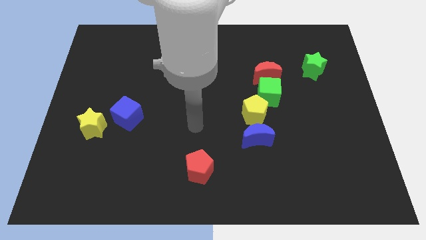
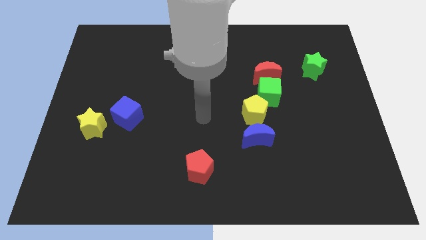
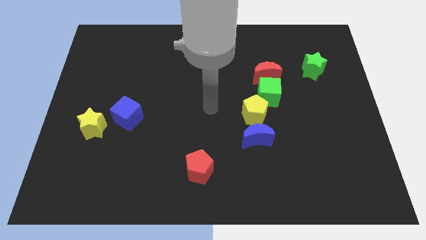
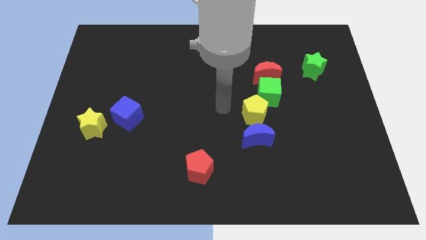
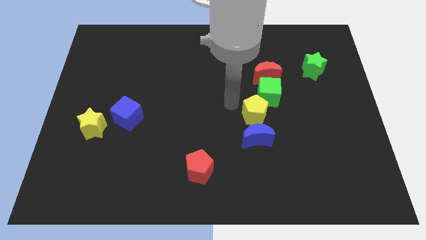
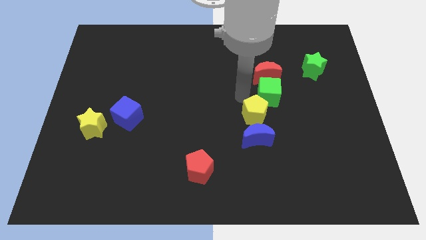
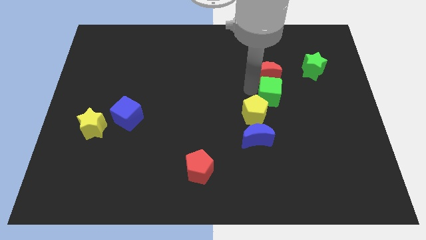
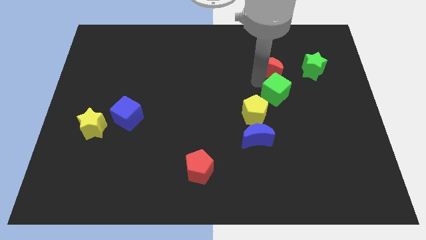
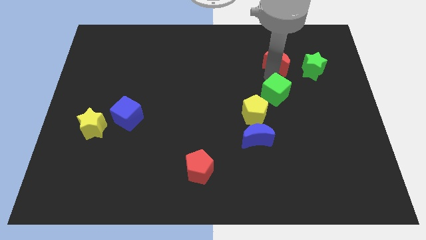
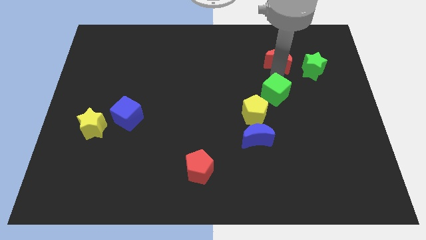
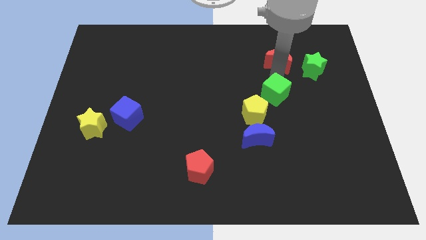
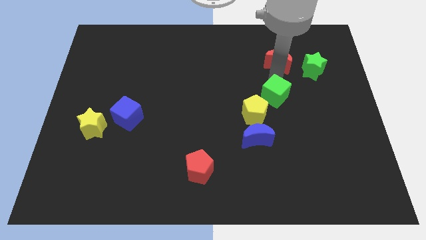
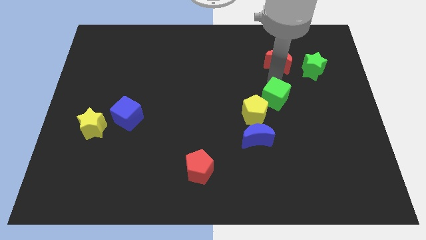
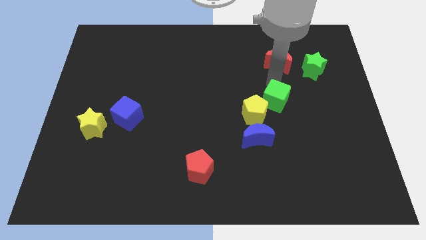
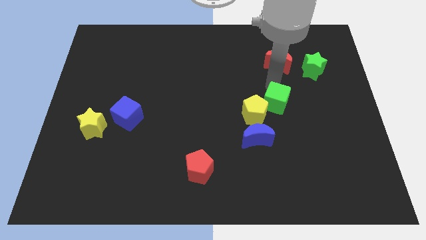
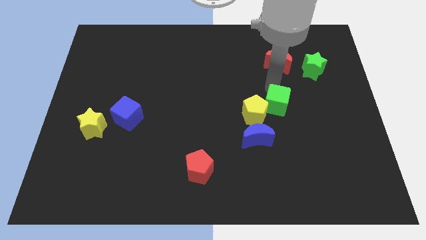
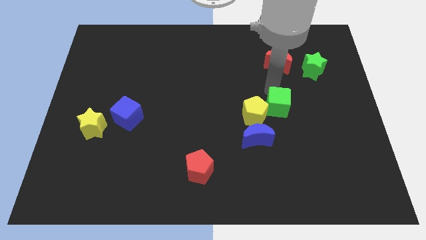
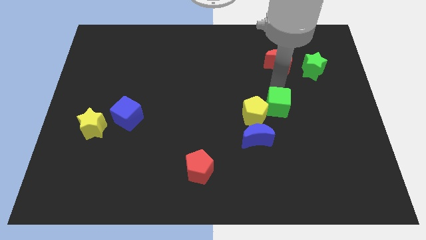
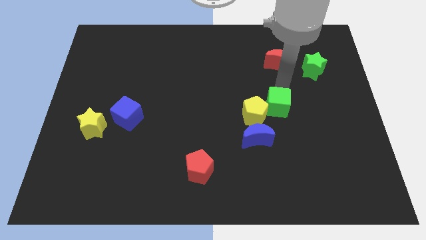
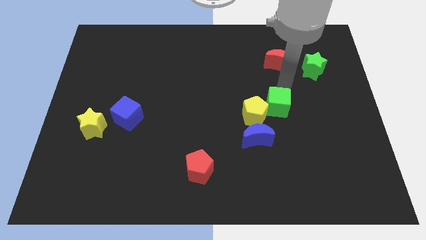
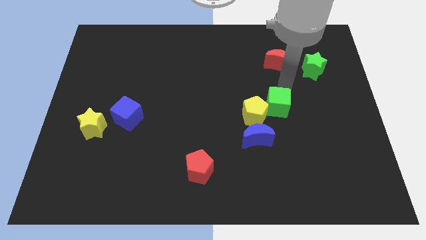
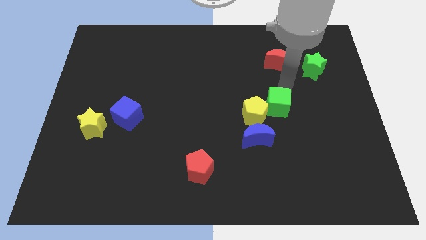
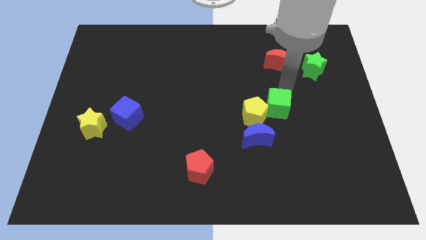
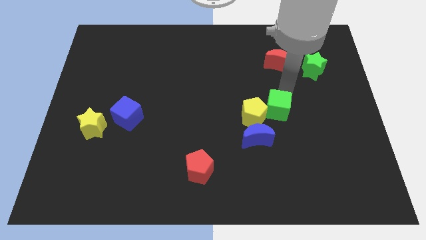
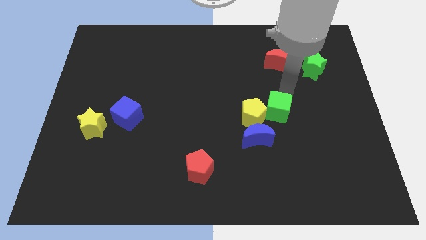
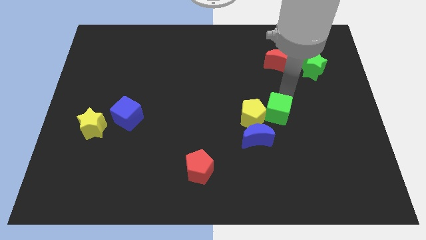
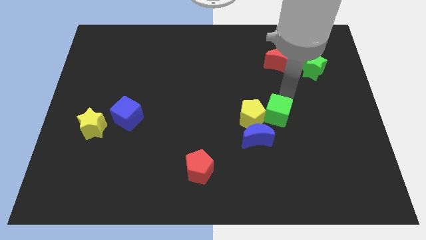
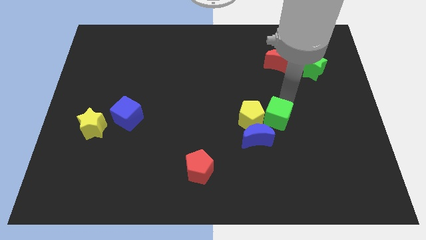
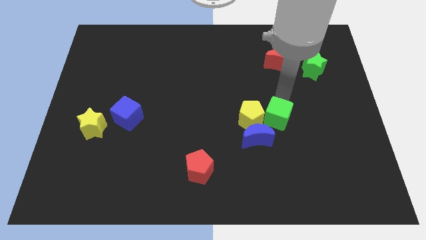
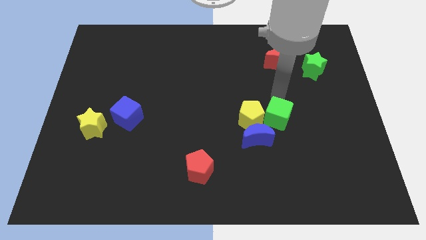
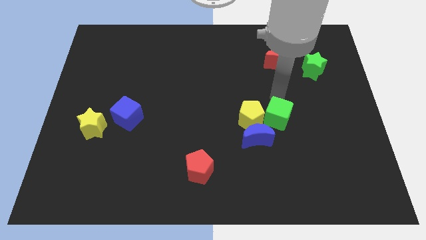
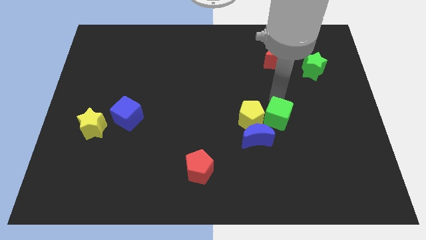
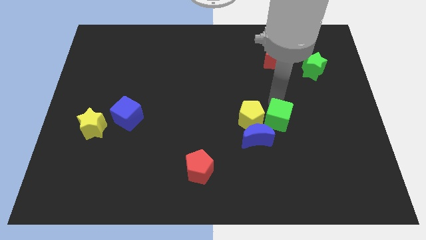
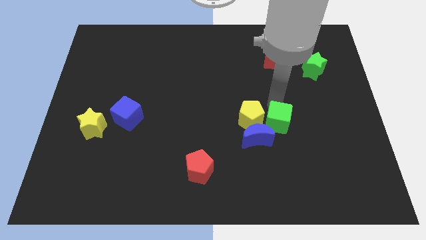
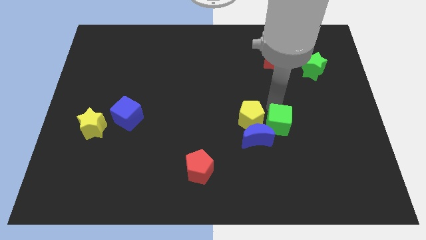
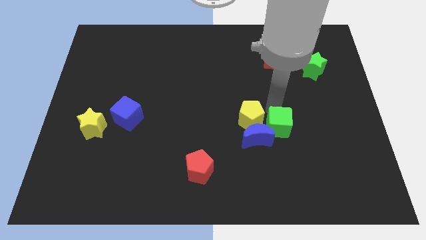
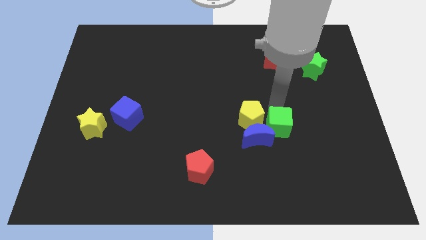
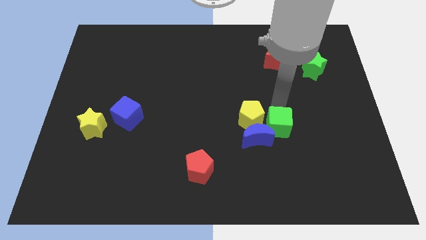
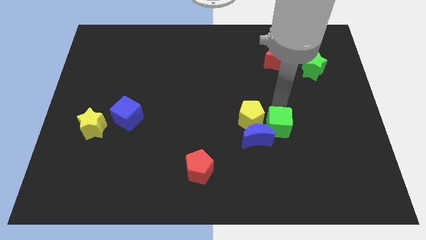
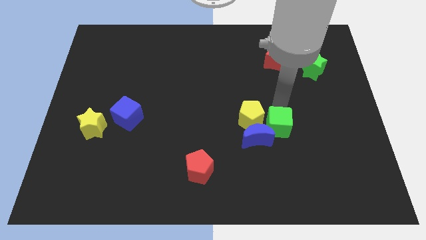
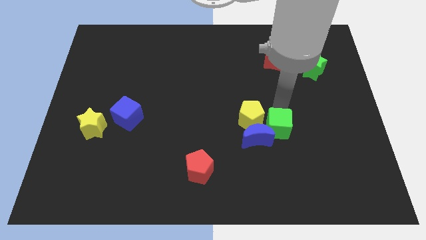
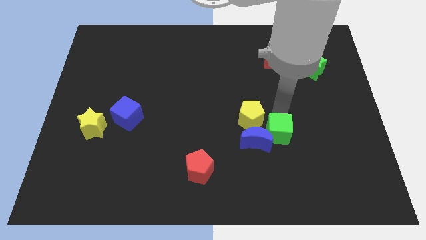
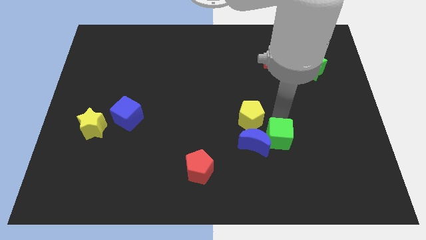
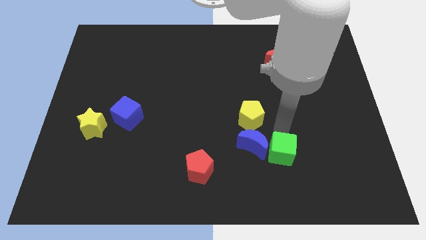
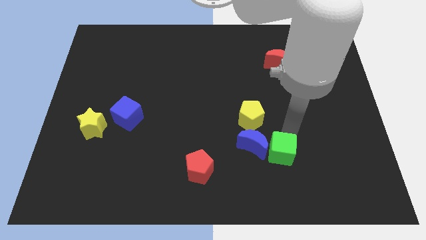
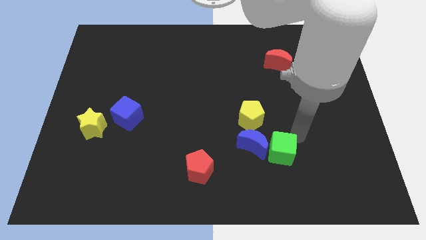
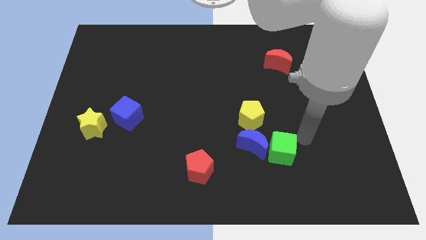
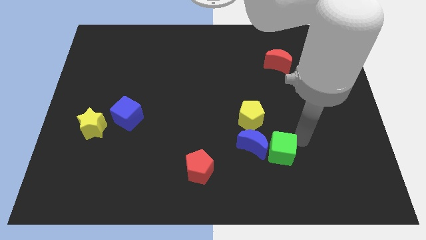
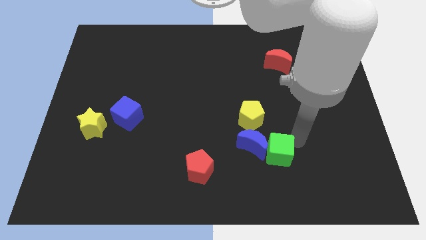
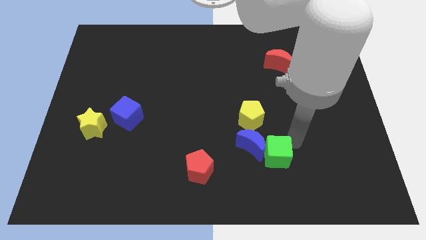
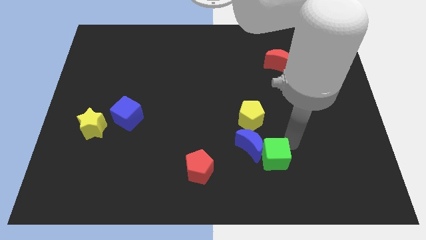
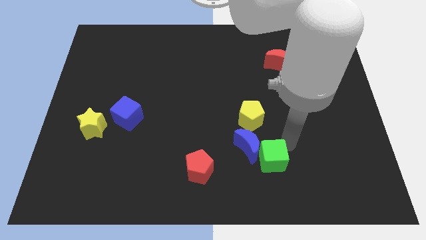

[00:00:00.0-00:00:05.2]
push the green cube just right of the red pentagon

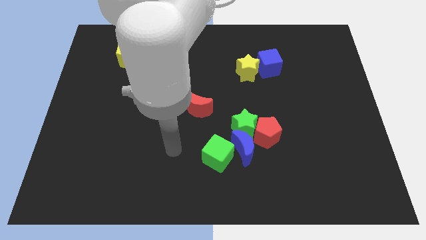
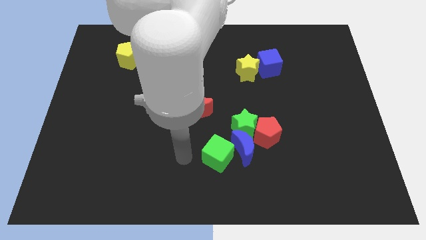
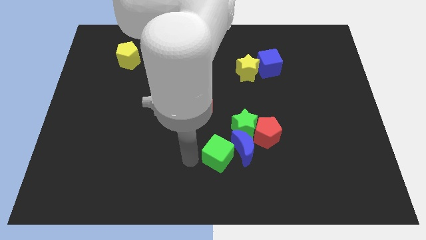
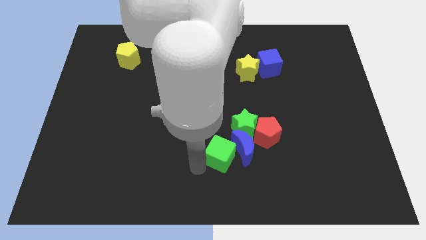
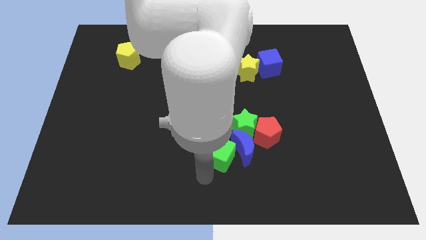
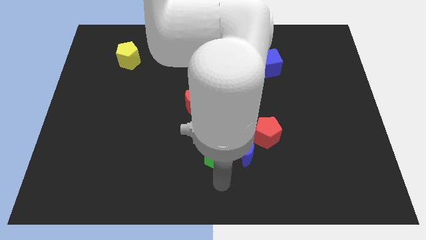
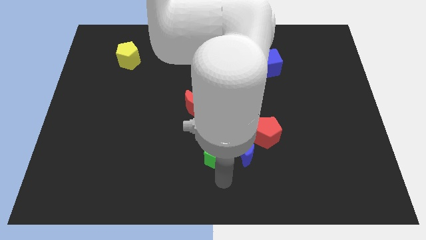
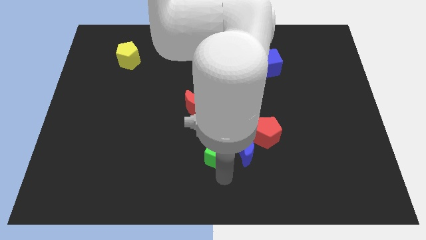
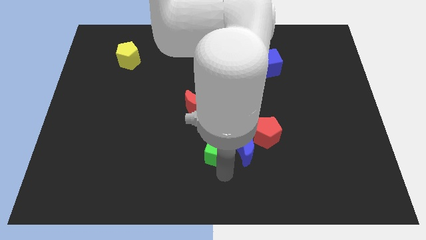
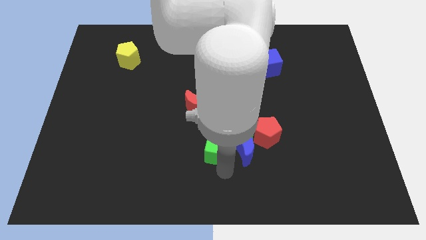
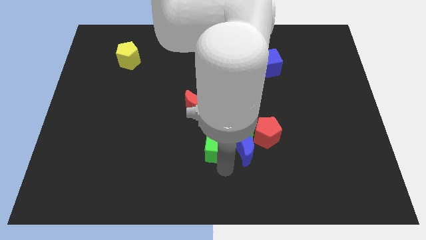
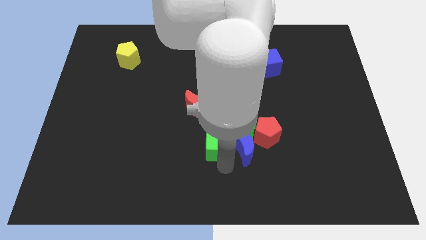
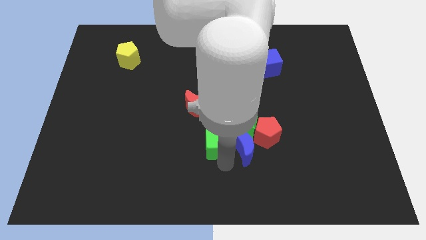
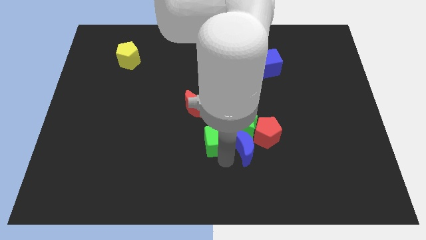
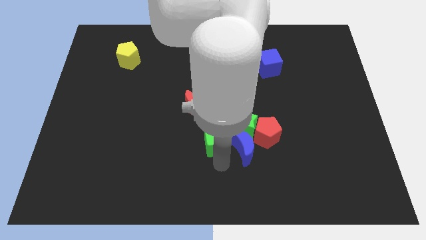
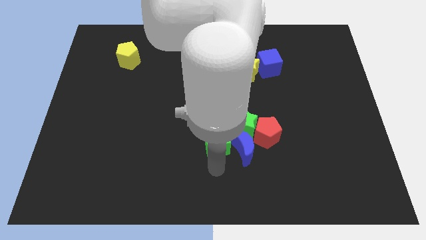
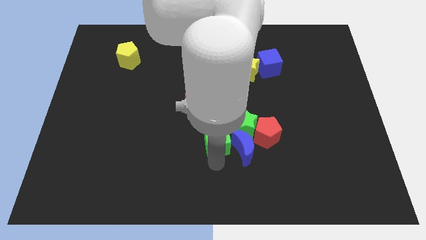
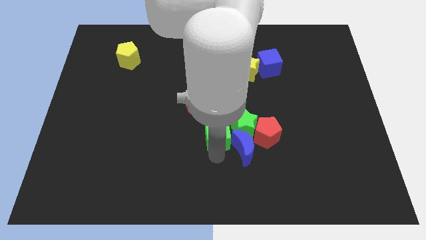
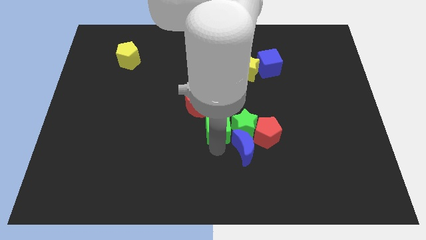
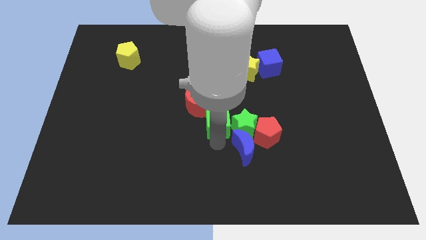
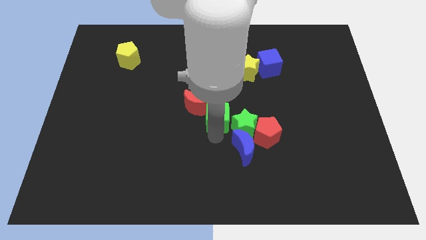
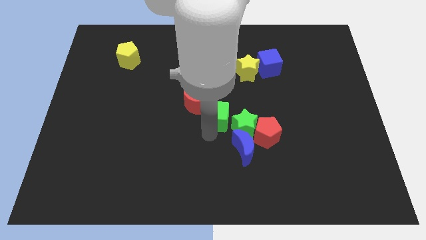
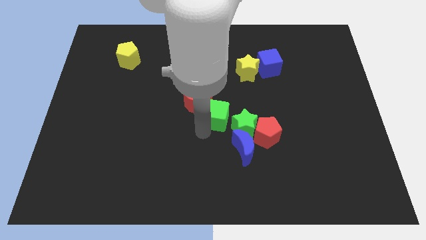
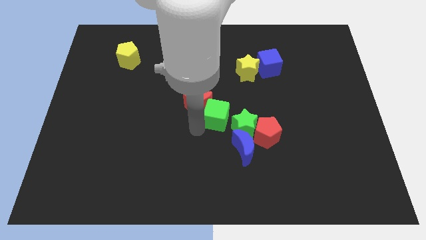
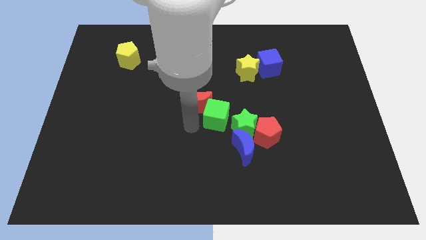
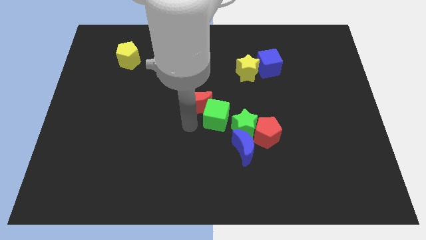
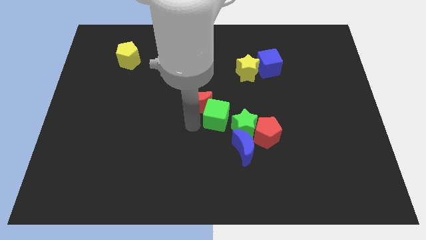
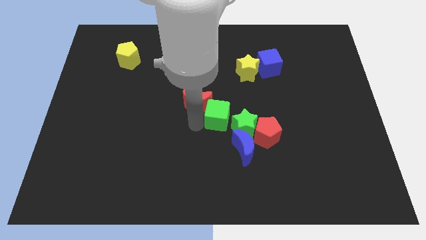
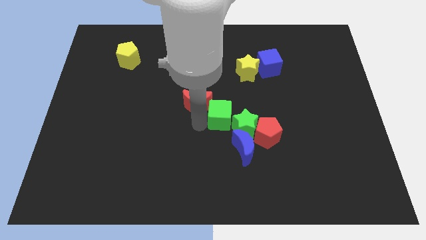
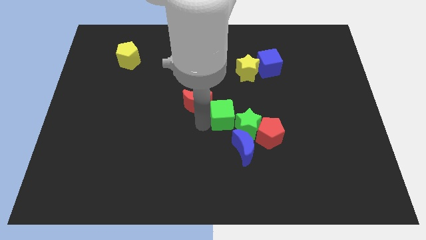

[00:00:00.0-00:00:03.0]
put the green cube above the blue moon
